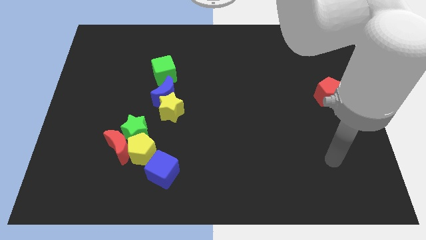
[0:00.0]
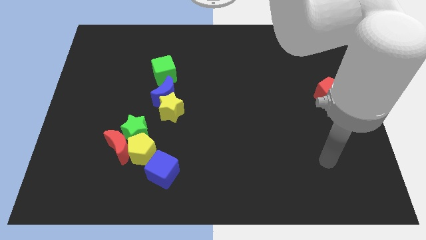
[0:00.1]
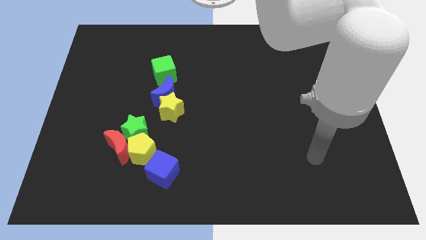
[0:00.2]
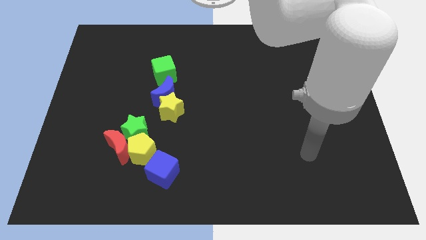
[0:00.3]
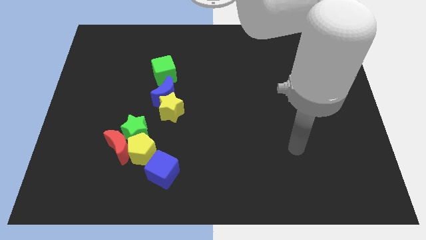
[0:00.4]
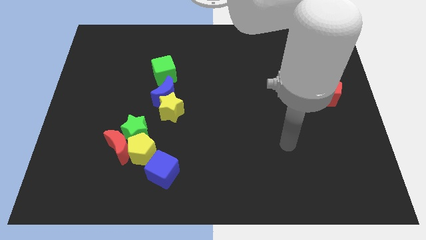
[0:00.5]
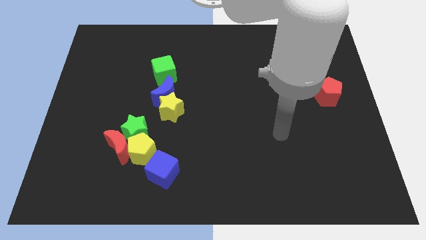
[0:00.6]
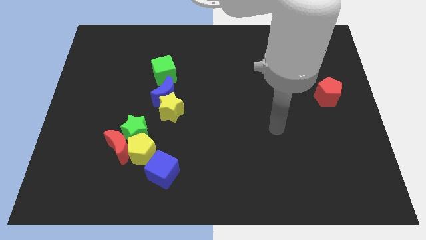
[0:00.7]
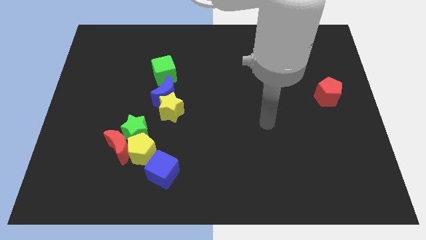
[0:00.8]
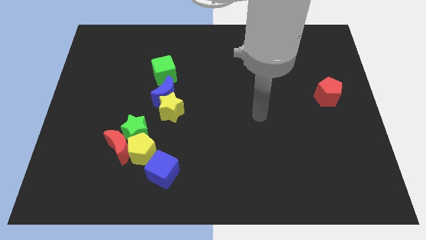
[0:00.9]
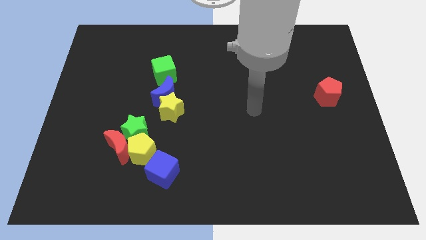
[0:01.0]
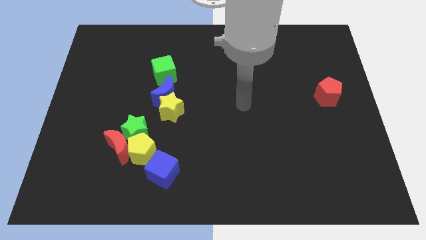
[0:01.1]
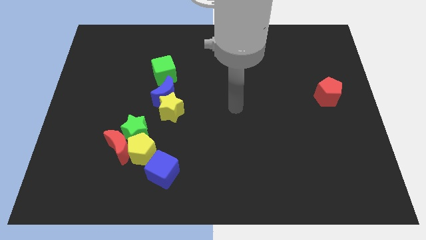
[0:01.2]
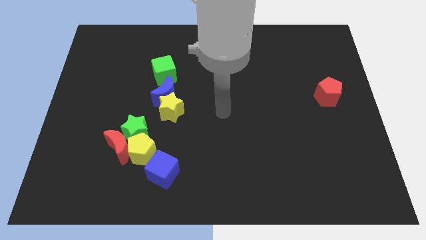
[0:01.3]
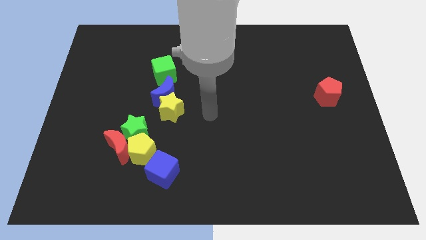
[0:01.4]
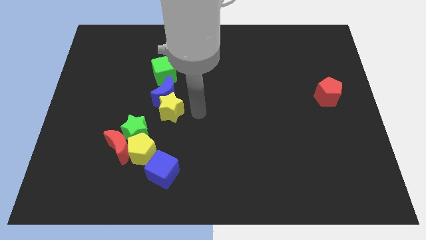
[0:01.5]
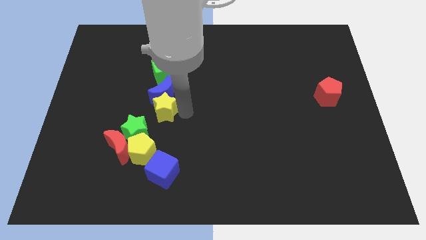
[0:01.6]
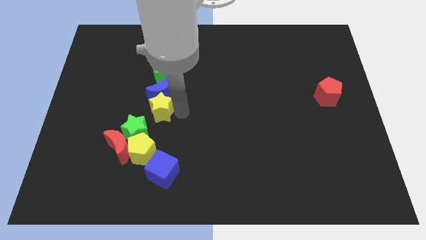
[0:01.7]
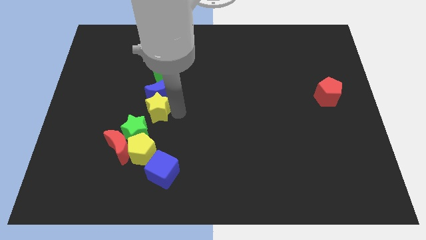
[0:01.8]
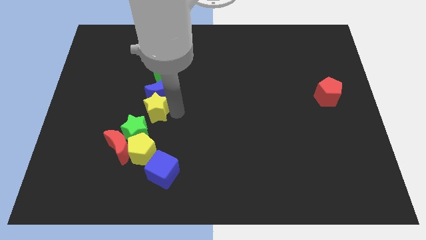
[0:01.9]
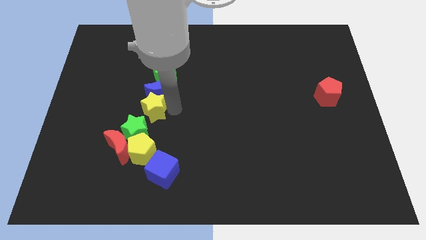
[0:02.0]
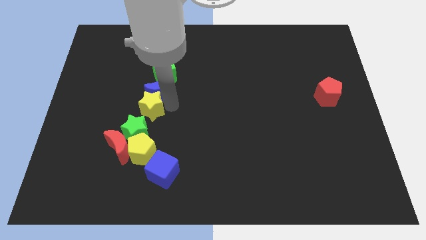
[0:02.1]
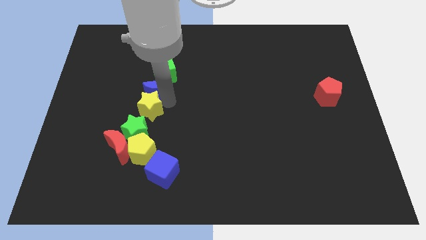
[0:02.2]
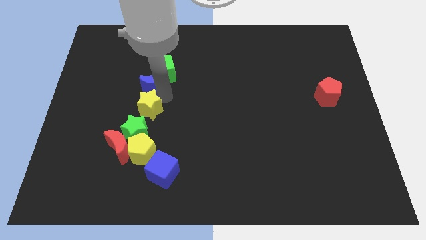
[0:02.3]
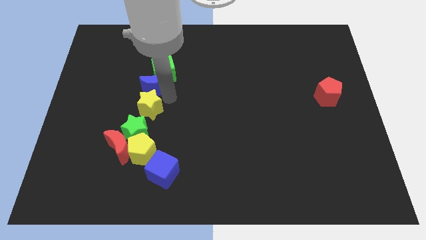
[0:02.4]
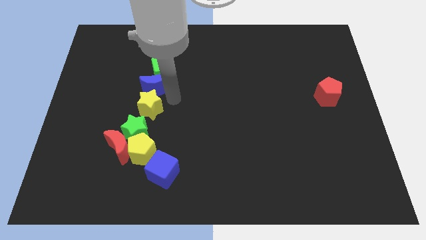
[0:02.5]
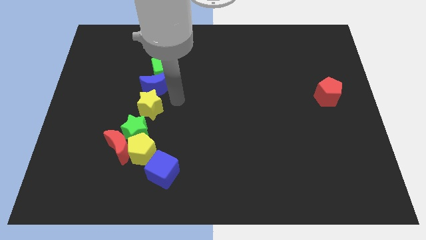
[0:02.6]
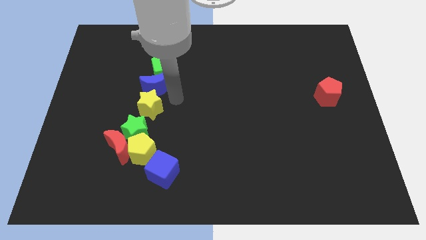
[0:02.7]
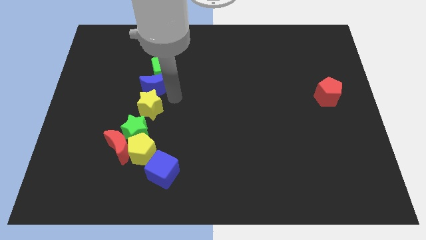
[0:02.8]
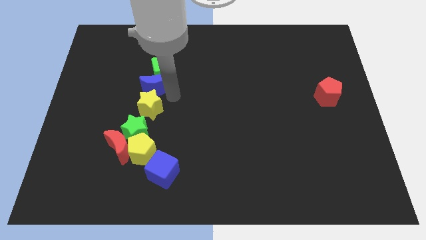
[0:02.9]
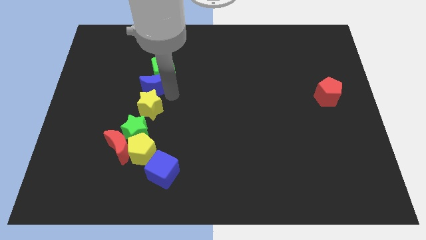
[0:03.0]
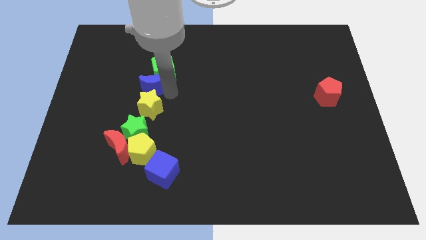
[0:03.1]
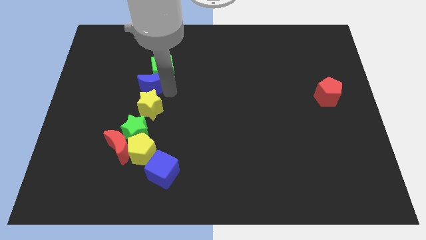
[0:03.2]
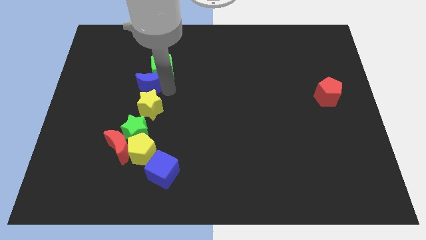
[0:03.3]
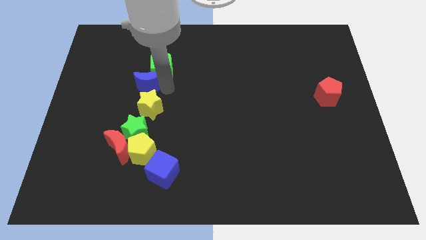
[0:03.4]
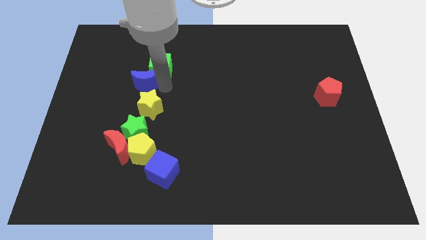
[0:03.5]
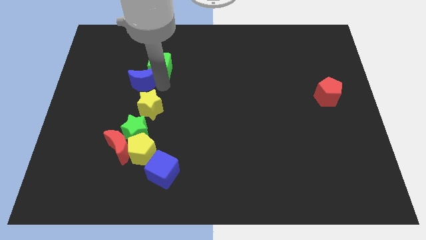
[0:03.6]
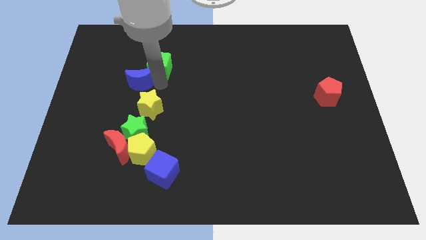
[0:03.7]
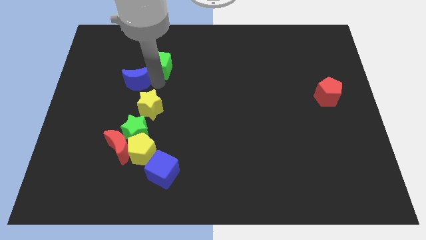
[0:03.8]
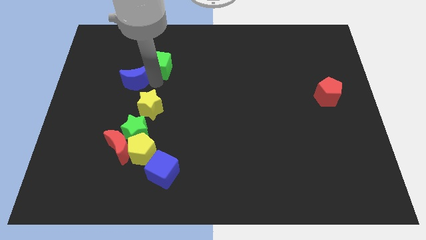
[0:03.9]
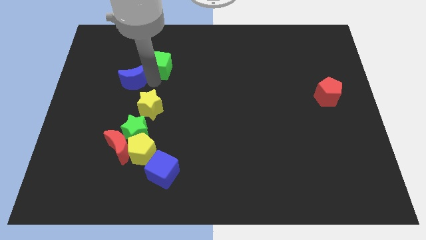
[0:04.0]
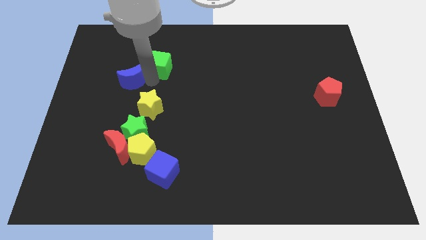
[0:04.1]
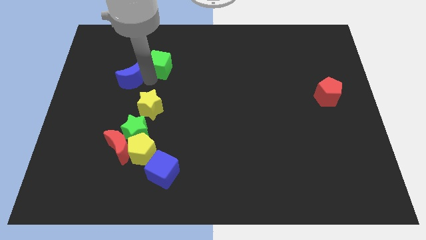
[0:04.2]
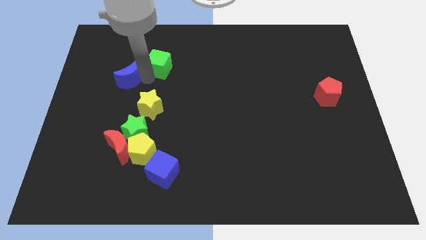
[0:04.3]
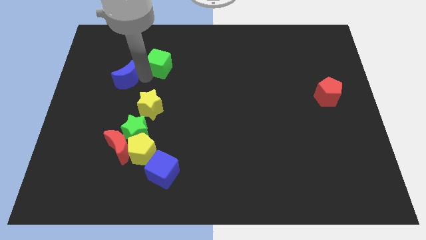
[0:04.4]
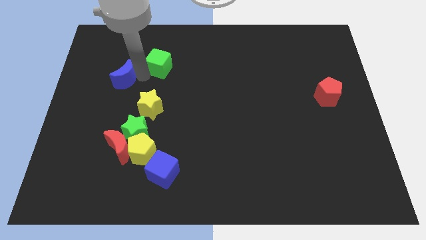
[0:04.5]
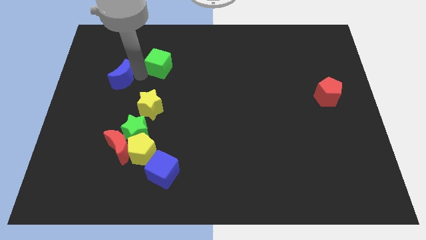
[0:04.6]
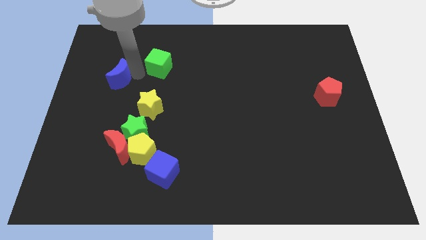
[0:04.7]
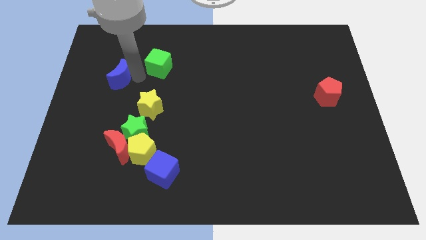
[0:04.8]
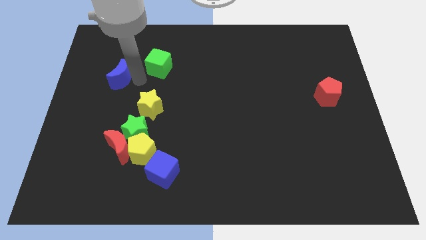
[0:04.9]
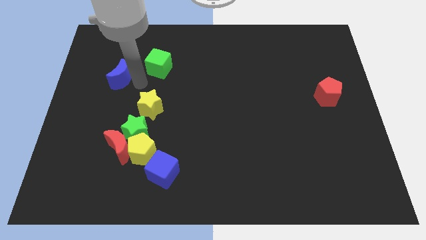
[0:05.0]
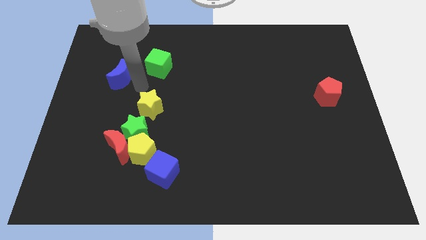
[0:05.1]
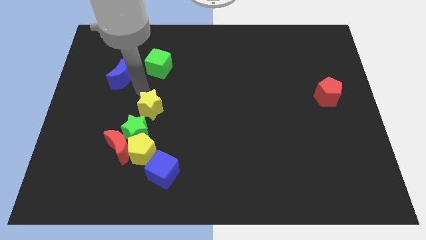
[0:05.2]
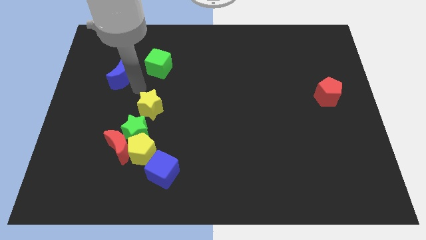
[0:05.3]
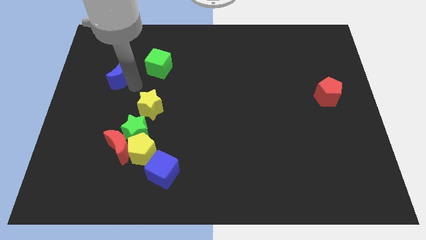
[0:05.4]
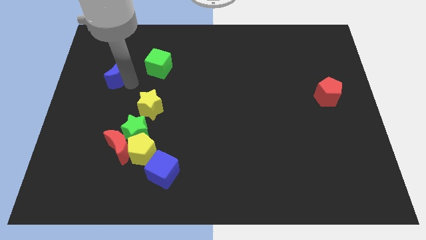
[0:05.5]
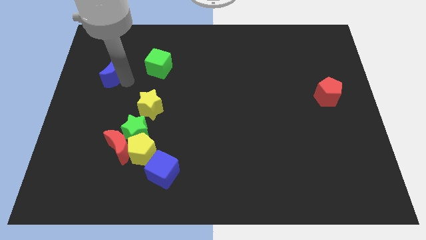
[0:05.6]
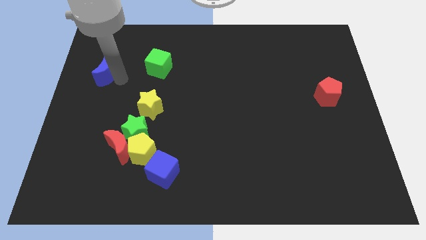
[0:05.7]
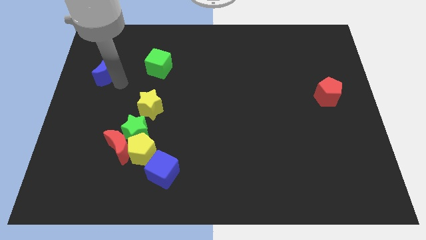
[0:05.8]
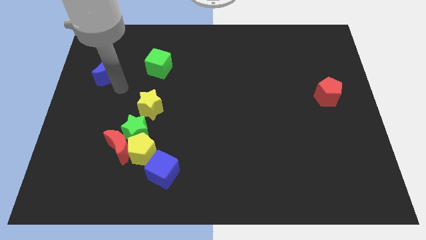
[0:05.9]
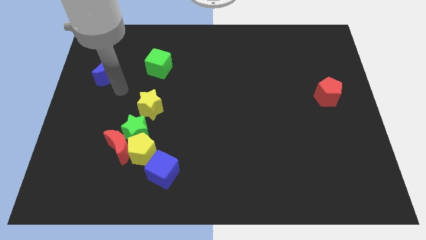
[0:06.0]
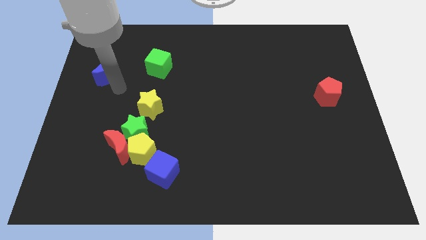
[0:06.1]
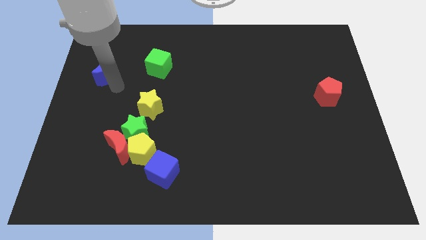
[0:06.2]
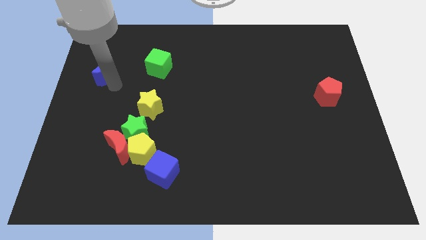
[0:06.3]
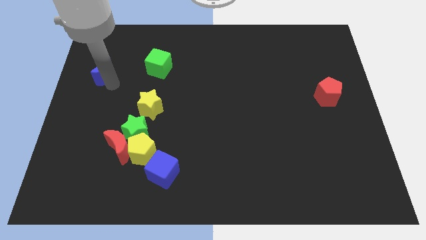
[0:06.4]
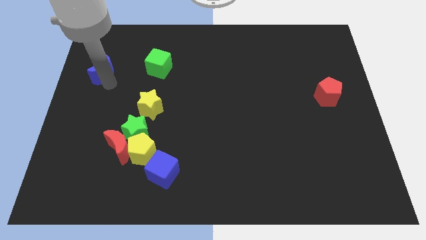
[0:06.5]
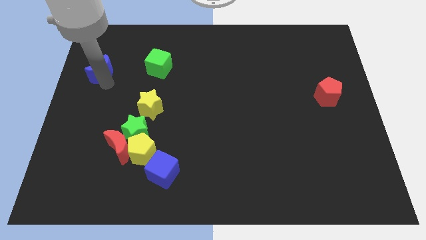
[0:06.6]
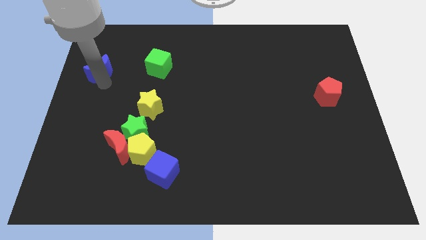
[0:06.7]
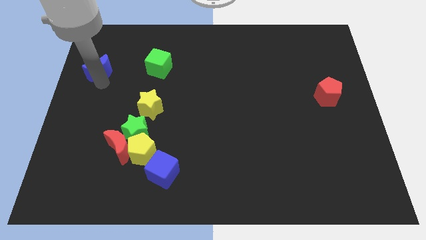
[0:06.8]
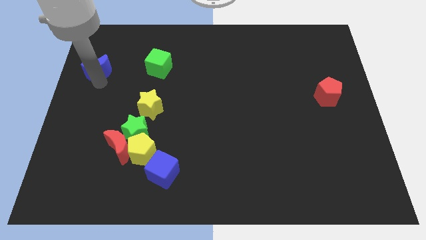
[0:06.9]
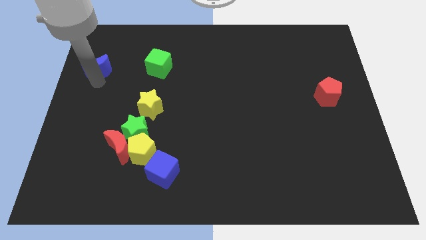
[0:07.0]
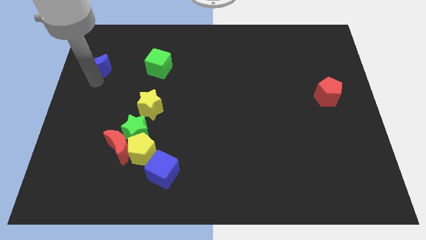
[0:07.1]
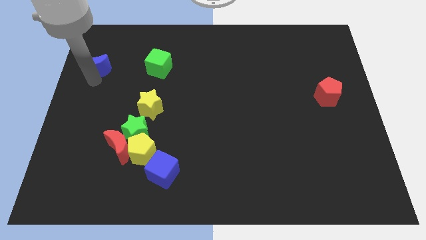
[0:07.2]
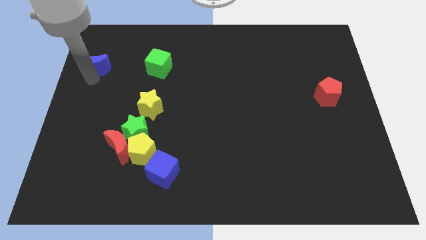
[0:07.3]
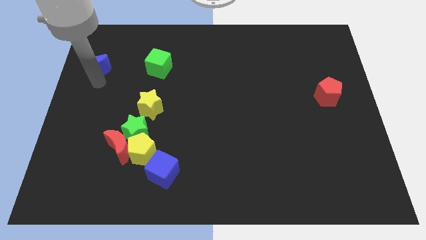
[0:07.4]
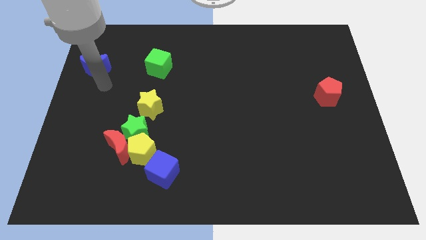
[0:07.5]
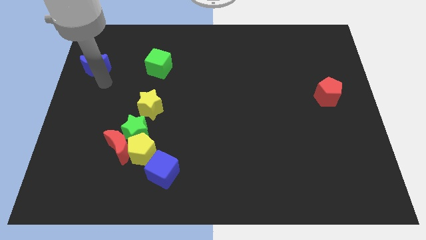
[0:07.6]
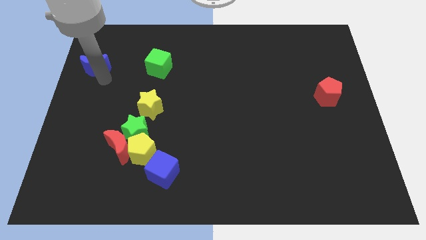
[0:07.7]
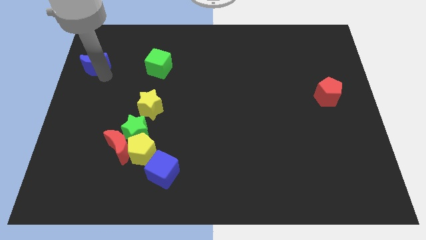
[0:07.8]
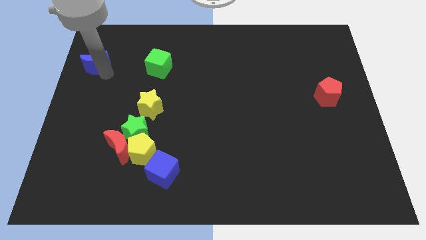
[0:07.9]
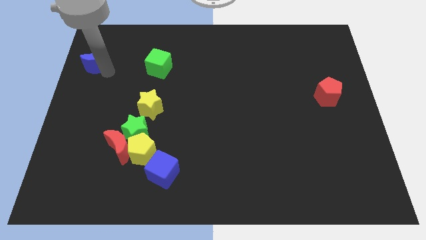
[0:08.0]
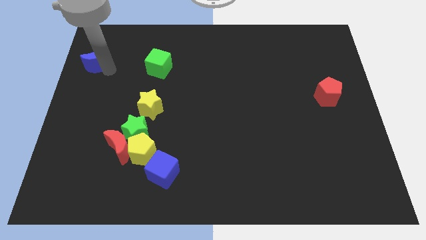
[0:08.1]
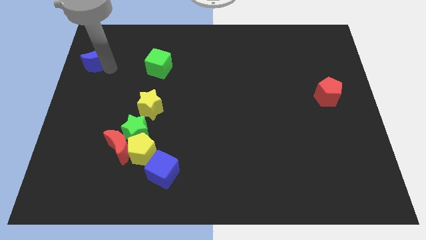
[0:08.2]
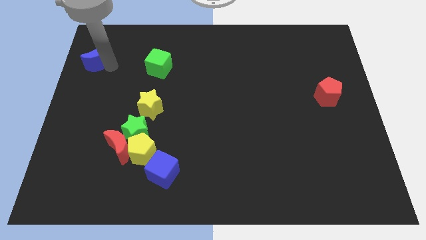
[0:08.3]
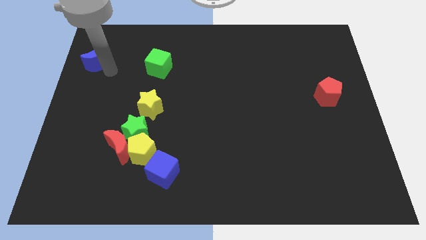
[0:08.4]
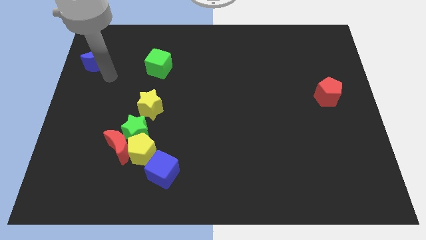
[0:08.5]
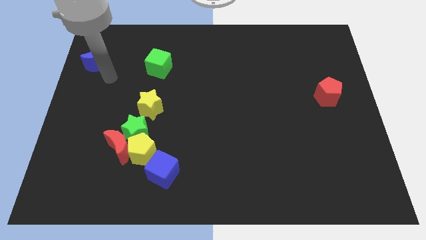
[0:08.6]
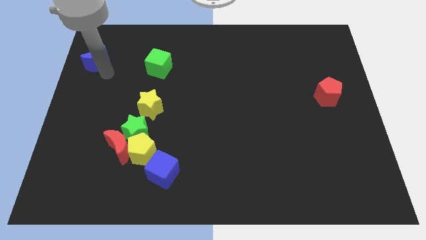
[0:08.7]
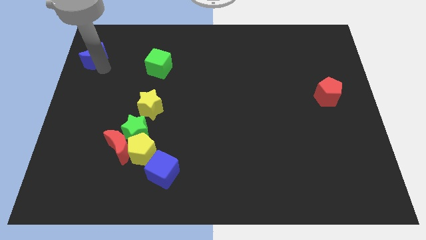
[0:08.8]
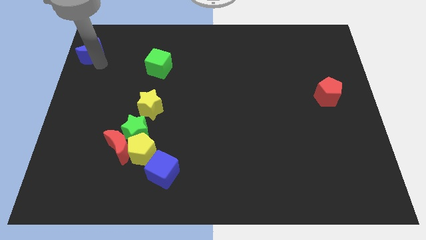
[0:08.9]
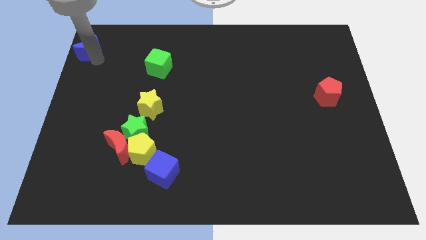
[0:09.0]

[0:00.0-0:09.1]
slide the blue moon to the top left
